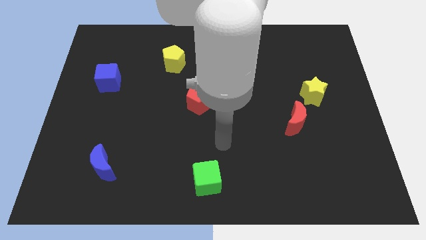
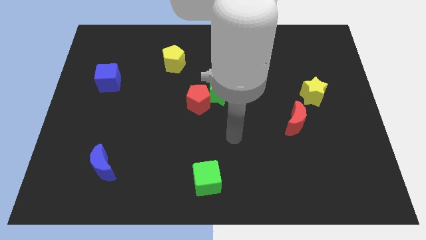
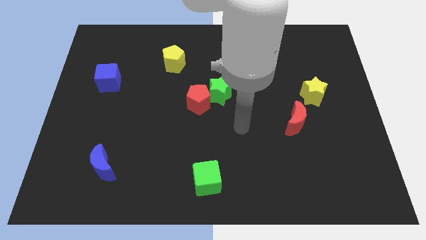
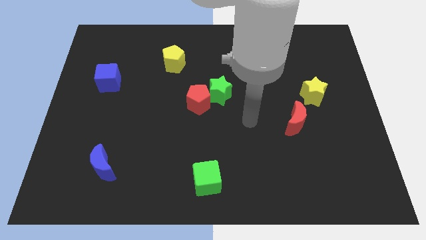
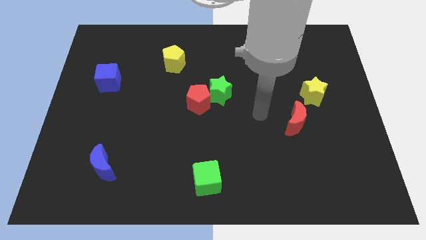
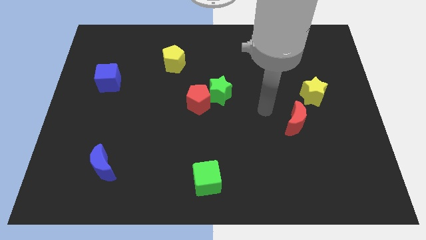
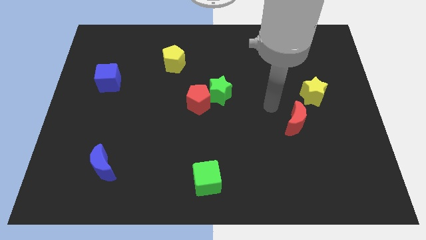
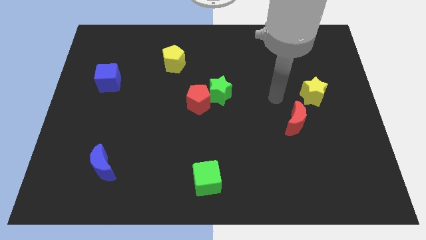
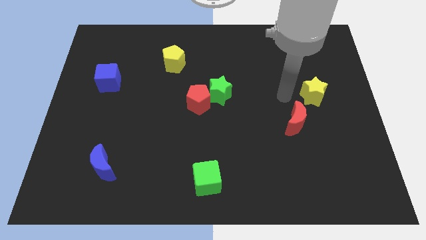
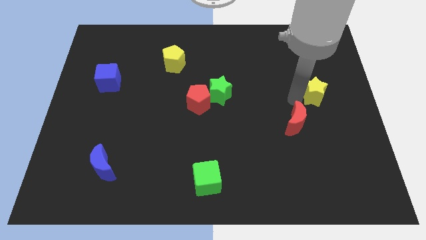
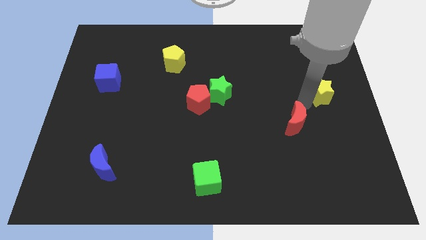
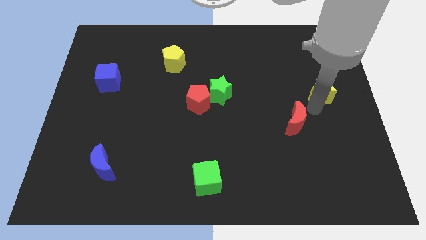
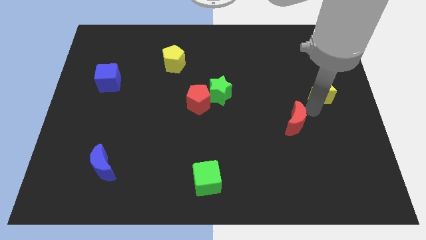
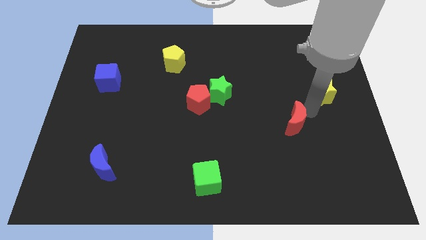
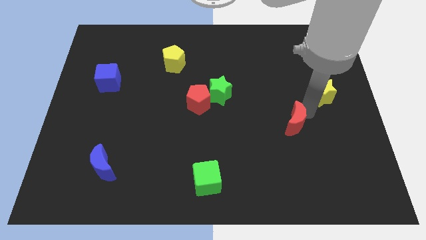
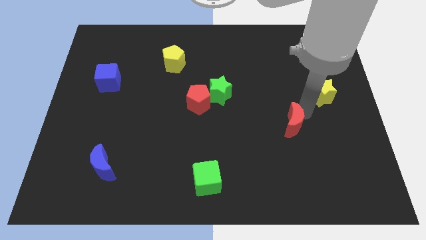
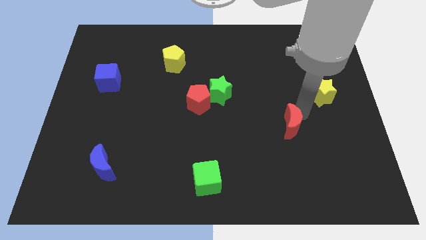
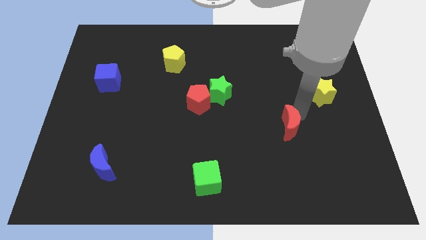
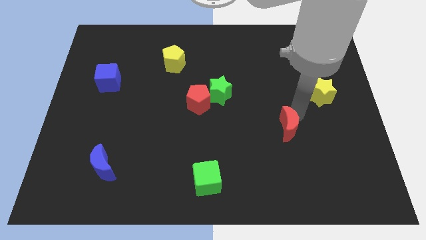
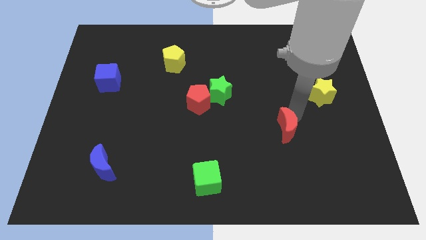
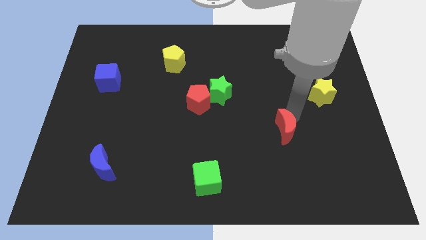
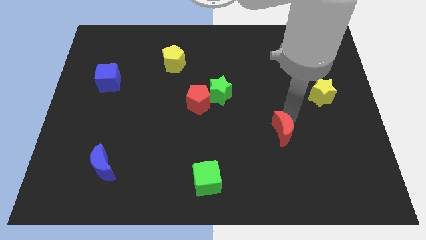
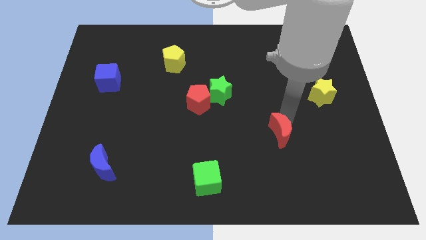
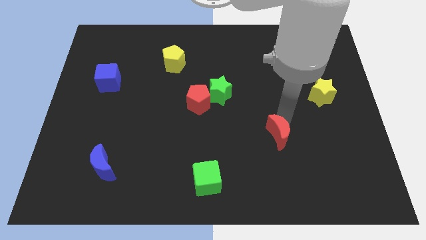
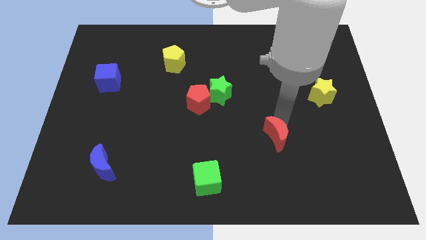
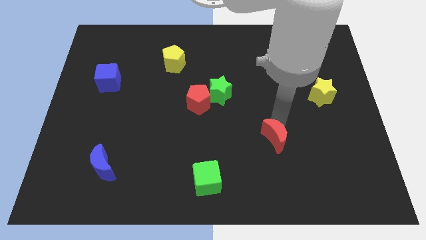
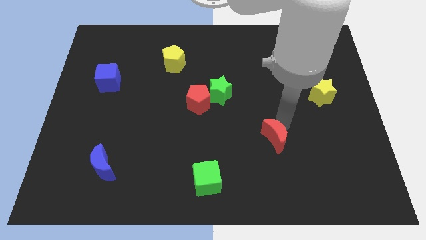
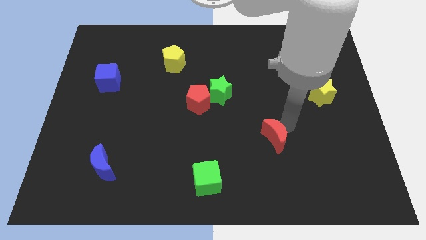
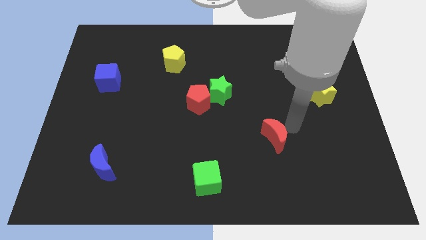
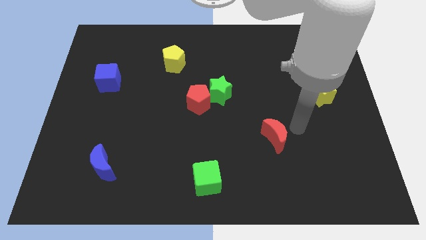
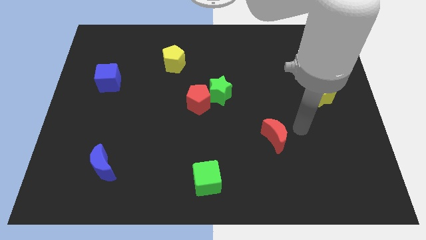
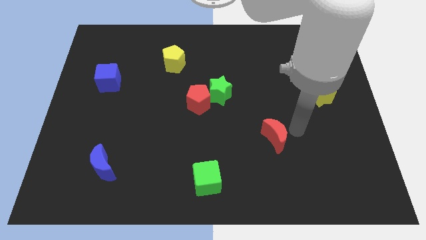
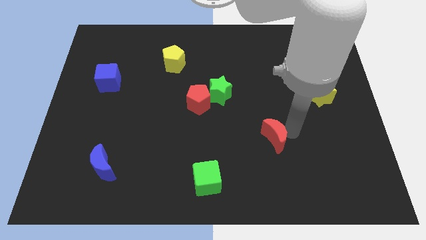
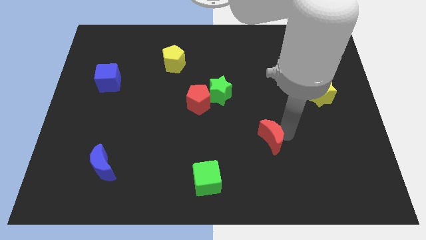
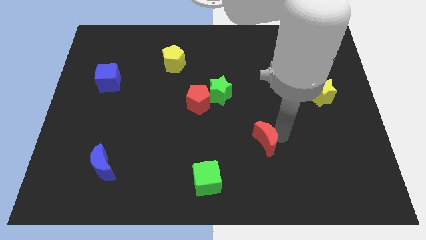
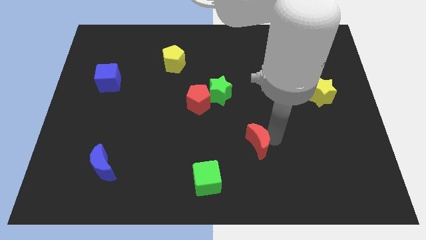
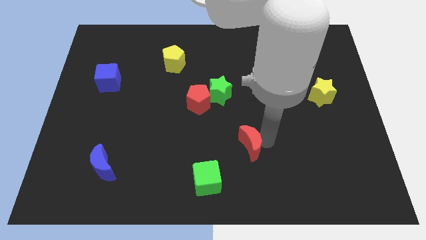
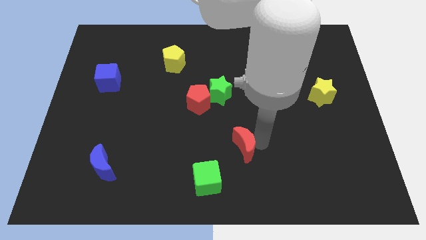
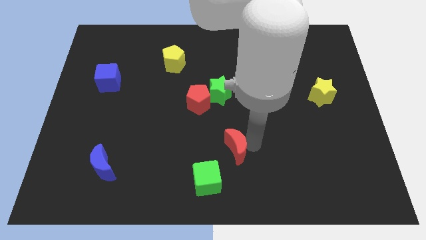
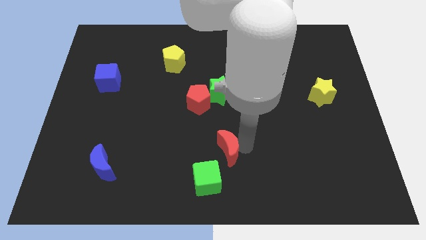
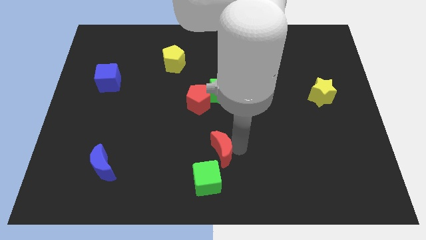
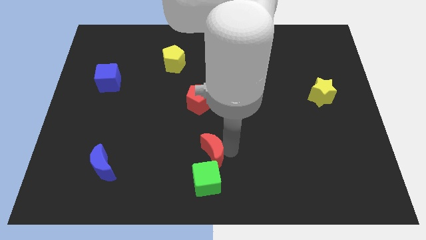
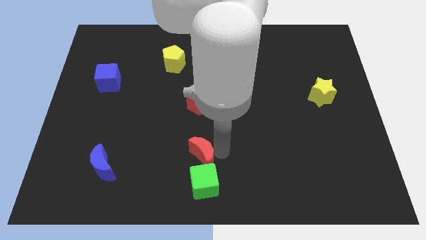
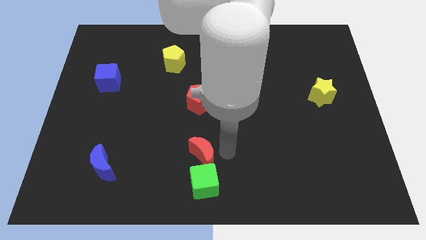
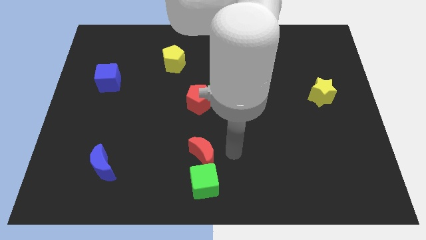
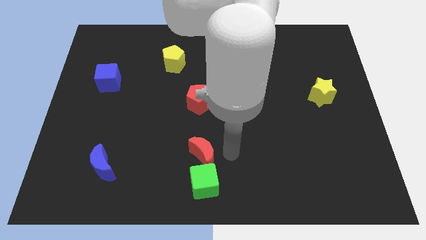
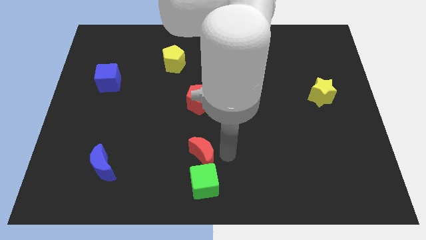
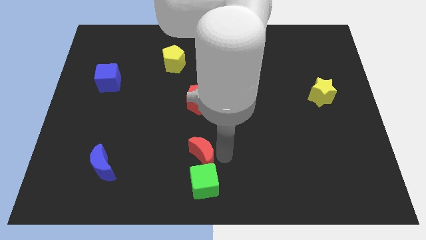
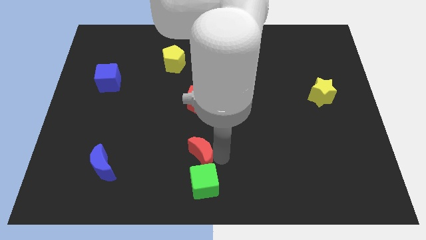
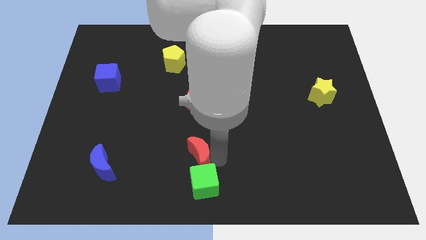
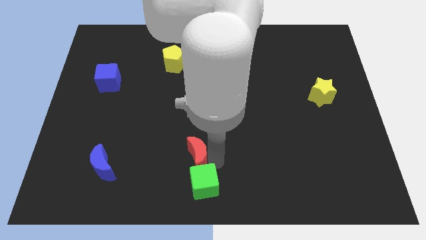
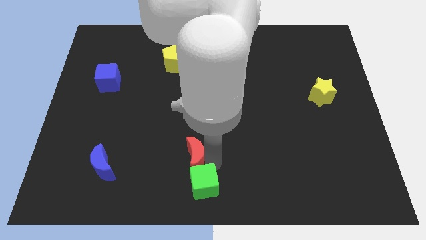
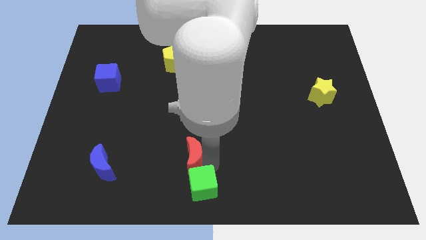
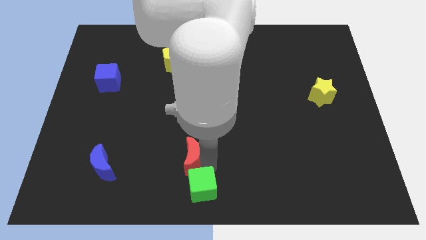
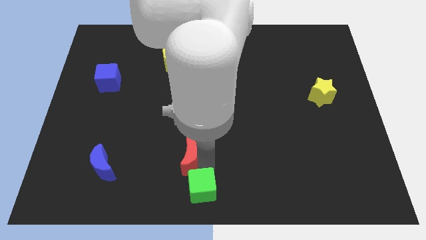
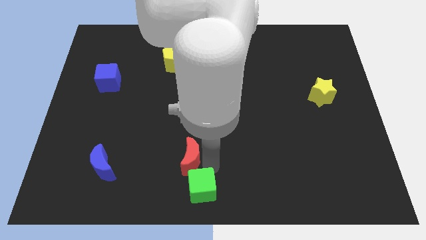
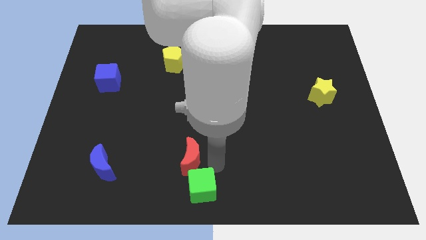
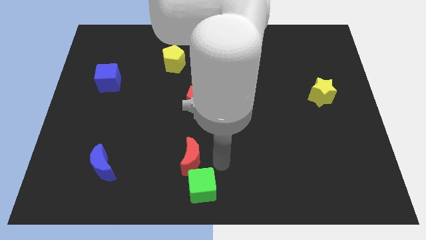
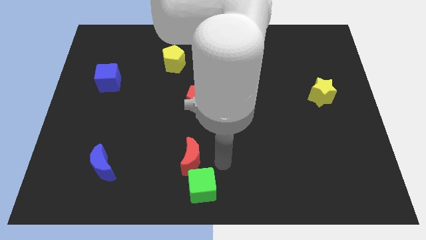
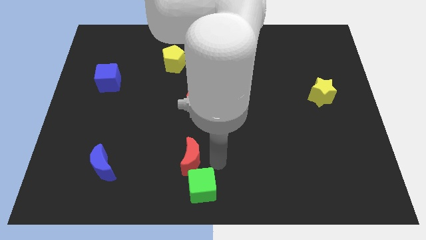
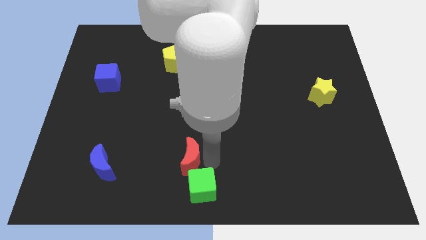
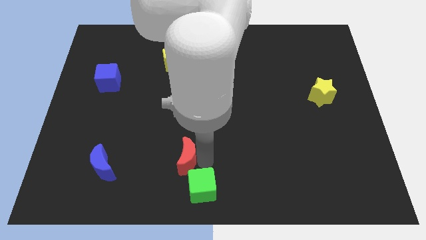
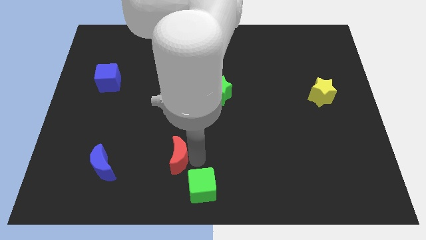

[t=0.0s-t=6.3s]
put the red moon right of the blue moon

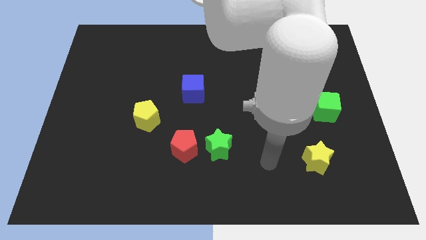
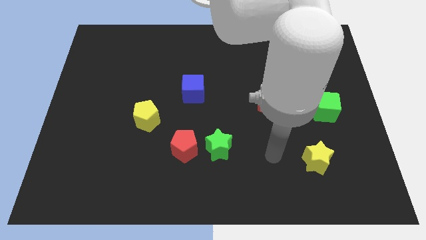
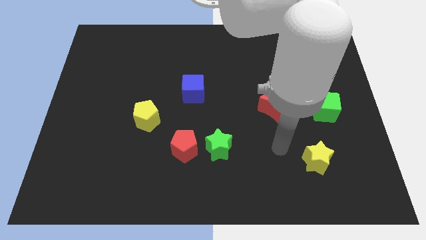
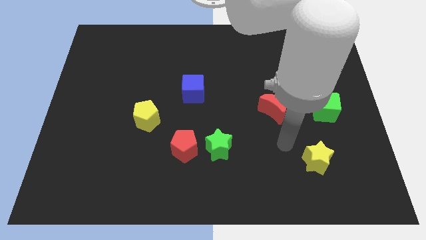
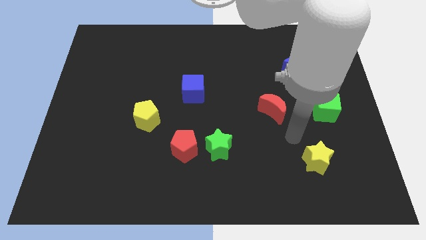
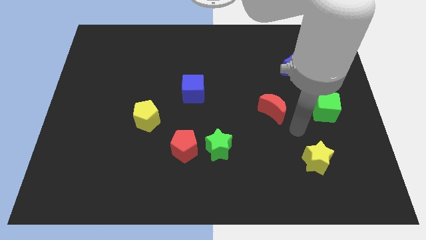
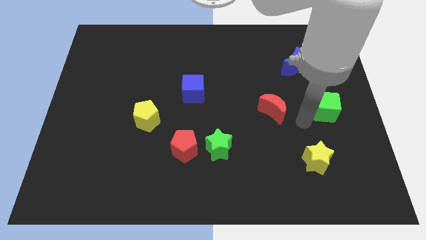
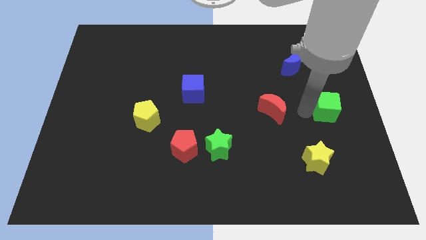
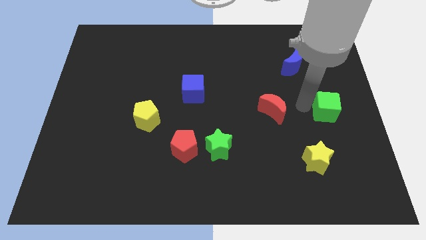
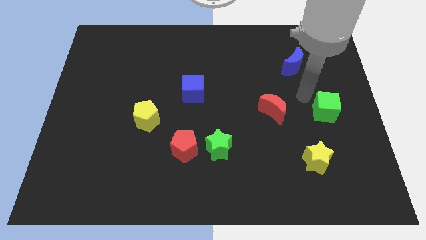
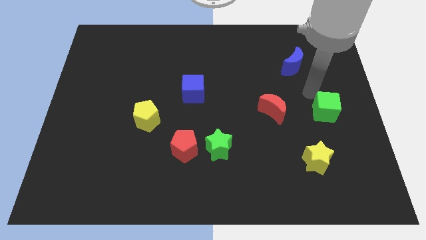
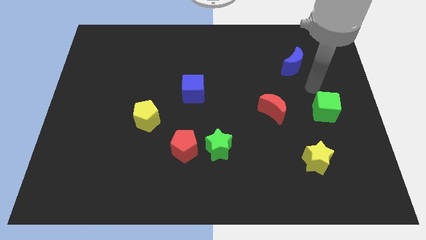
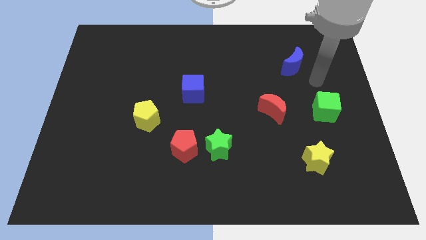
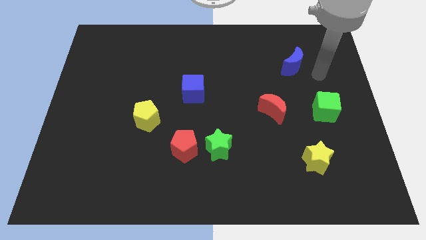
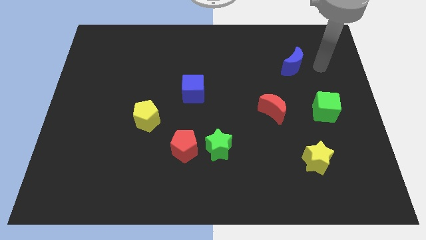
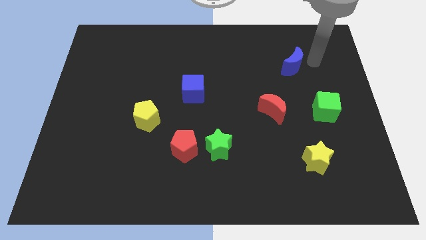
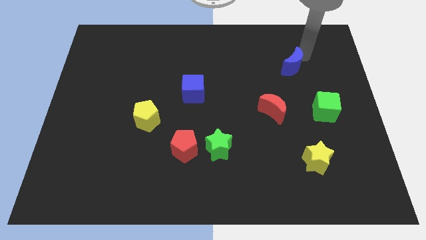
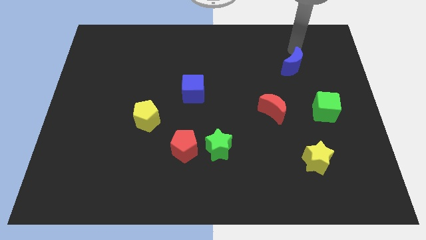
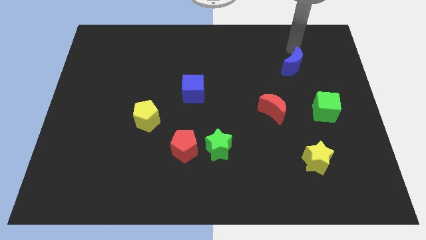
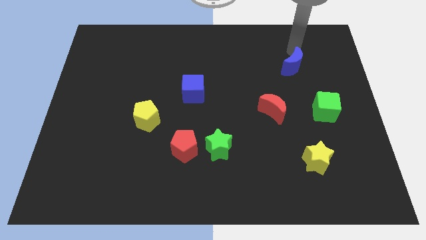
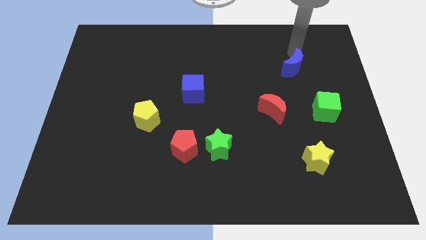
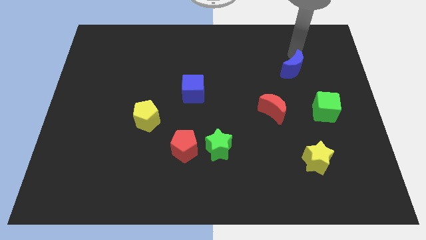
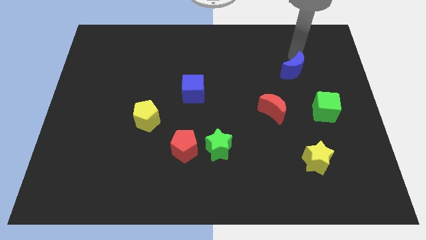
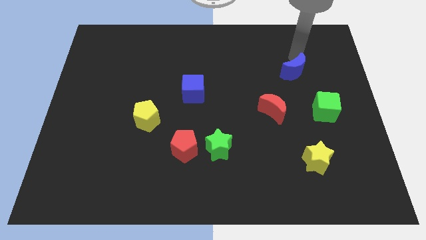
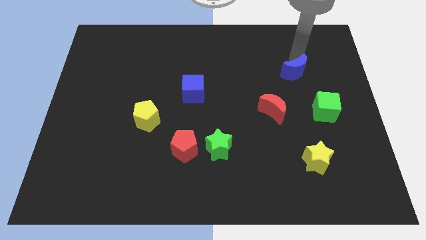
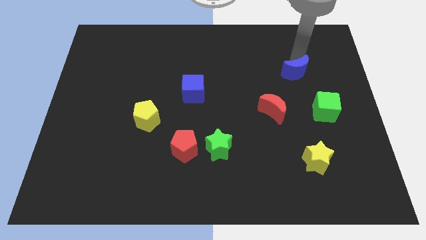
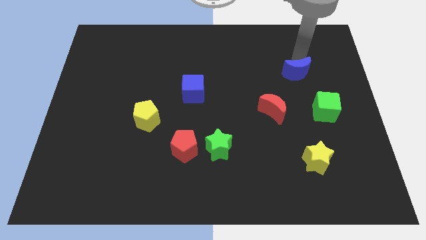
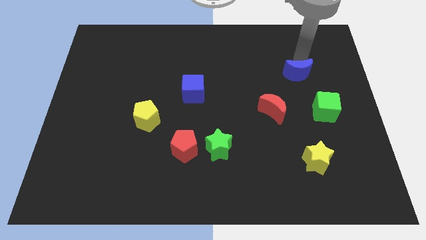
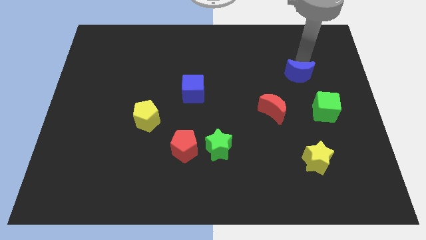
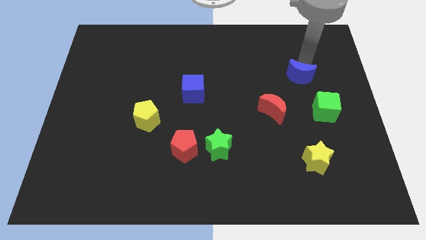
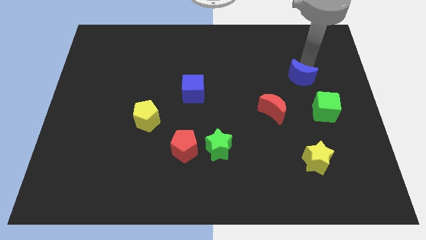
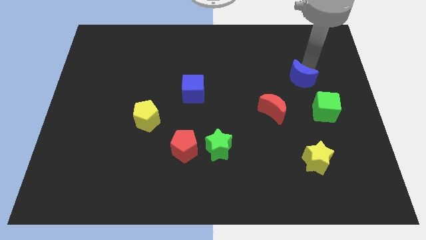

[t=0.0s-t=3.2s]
move the blue moon to the top right of the red moon
